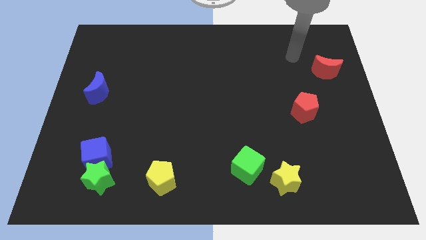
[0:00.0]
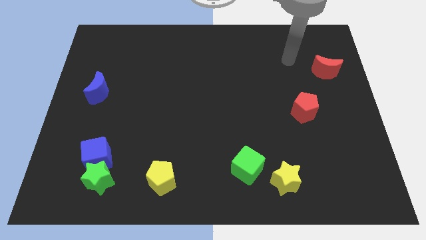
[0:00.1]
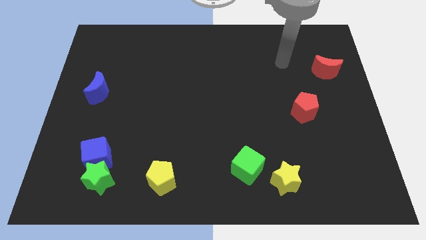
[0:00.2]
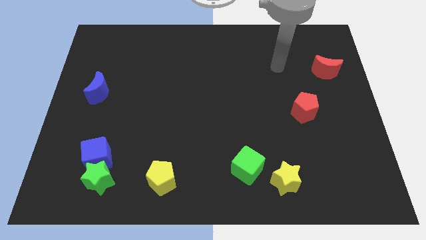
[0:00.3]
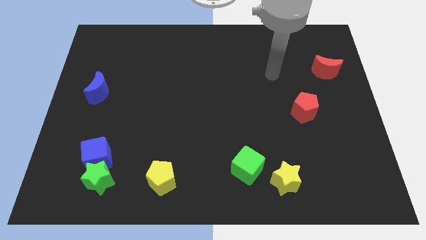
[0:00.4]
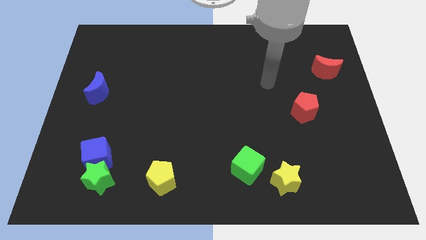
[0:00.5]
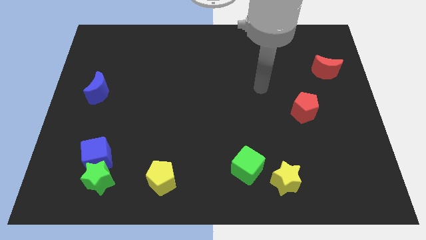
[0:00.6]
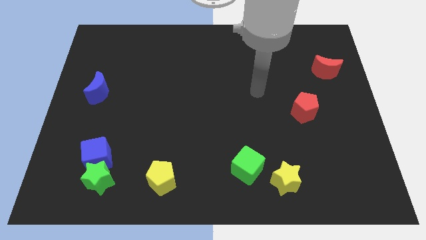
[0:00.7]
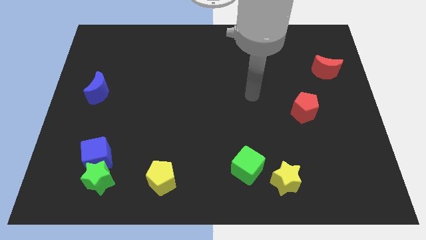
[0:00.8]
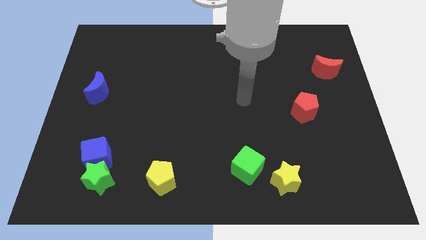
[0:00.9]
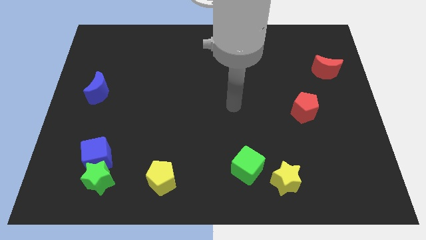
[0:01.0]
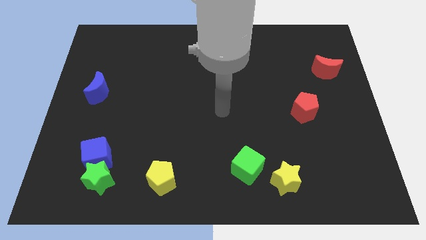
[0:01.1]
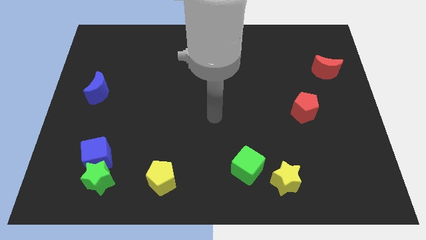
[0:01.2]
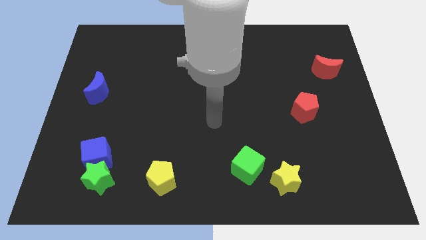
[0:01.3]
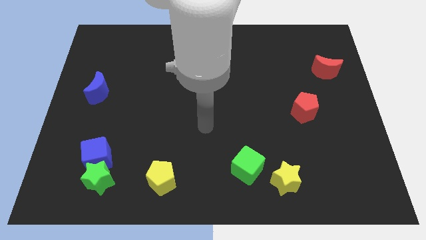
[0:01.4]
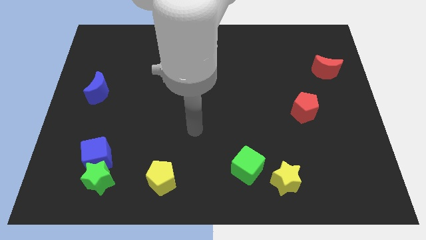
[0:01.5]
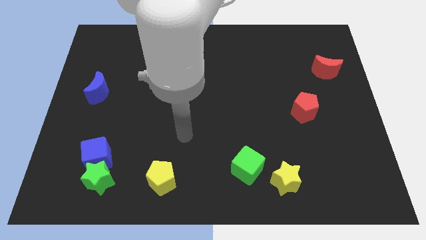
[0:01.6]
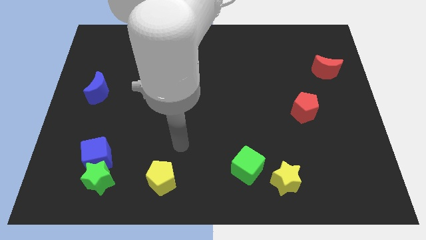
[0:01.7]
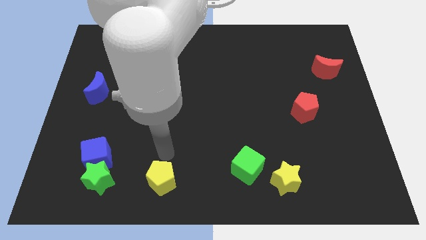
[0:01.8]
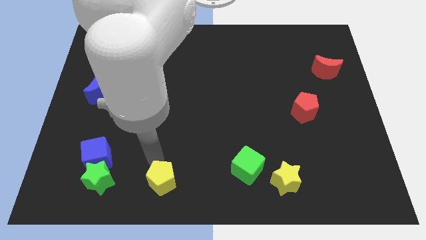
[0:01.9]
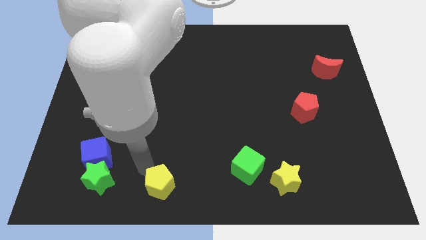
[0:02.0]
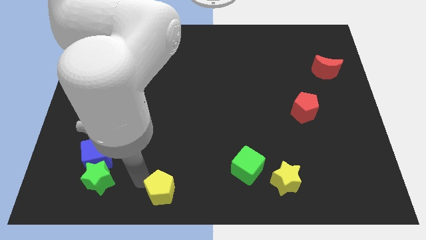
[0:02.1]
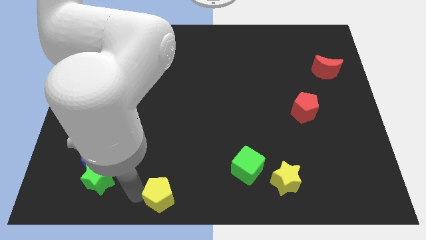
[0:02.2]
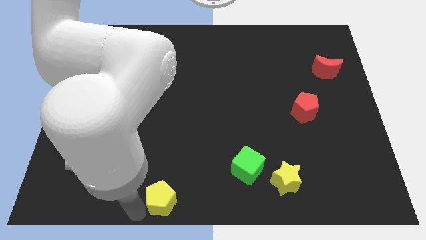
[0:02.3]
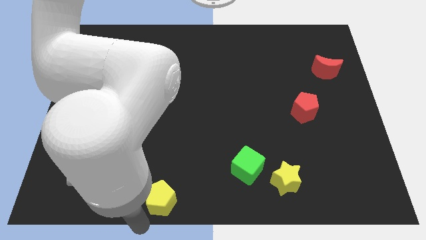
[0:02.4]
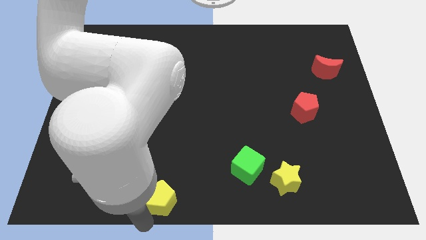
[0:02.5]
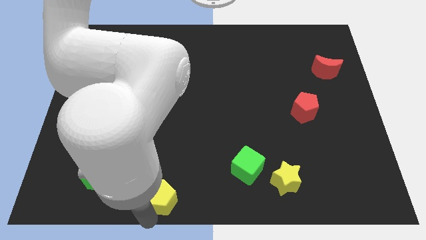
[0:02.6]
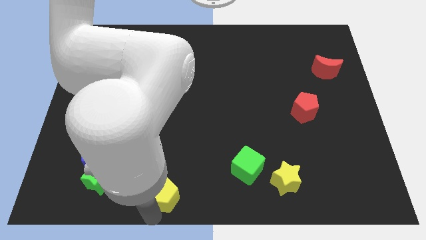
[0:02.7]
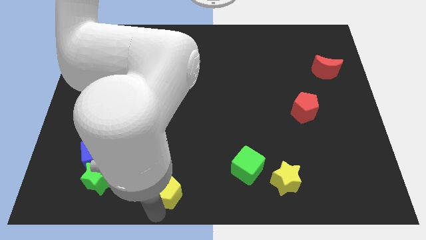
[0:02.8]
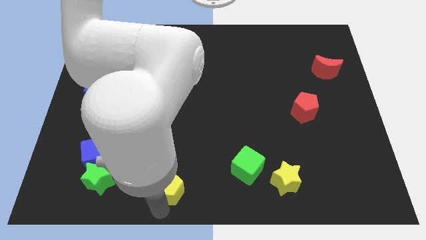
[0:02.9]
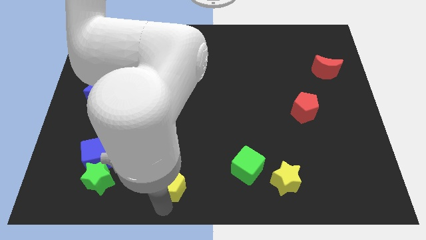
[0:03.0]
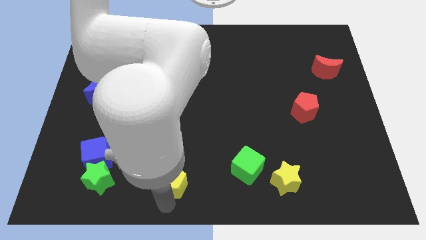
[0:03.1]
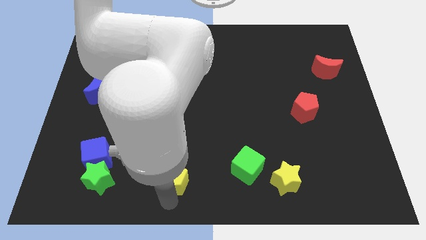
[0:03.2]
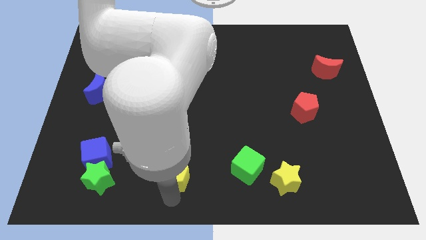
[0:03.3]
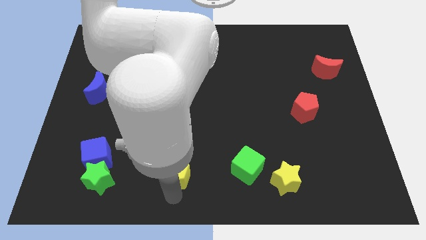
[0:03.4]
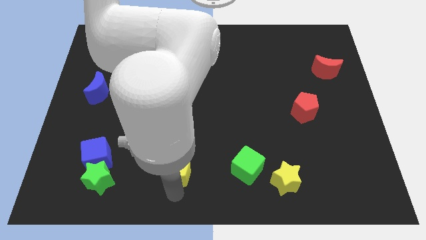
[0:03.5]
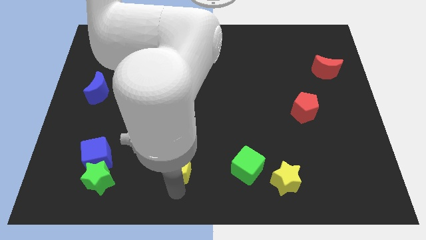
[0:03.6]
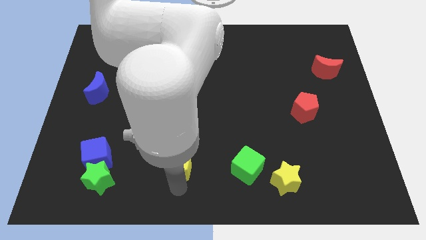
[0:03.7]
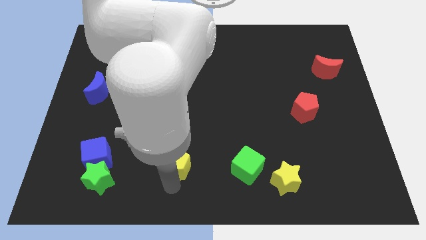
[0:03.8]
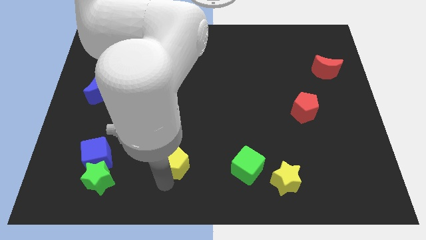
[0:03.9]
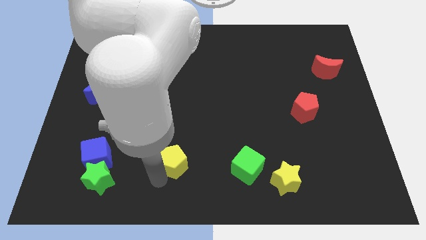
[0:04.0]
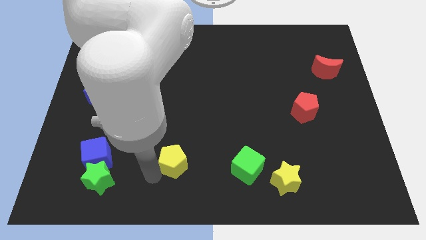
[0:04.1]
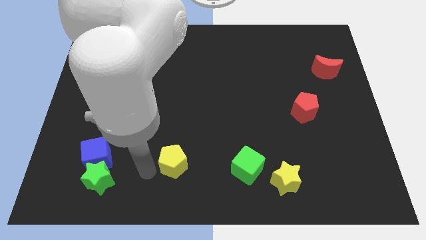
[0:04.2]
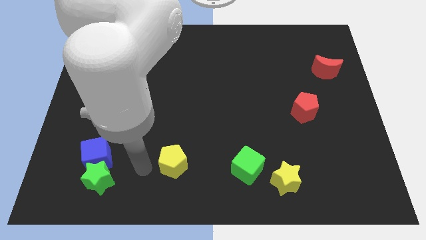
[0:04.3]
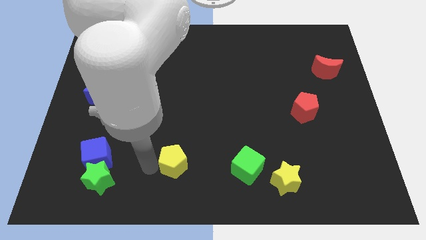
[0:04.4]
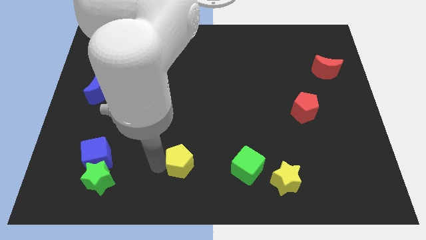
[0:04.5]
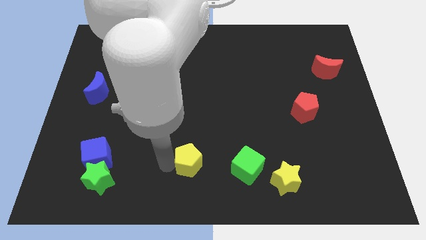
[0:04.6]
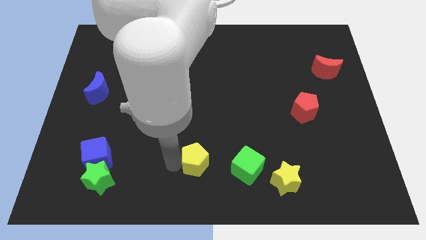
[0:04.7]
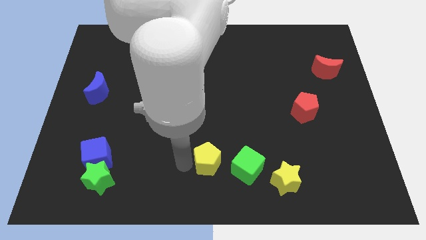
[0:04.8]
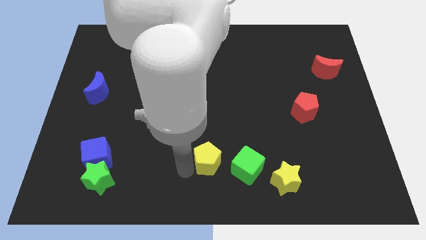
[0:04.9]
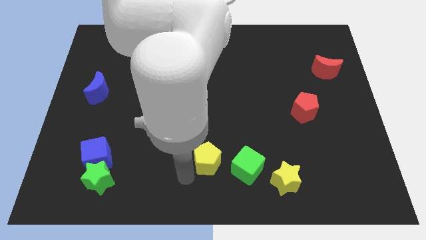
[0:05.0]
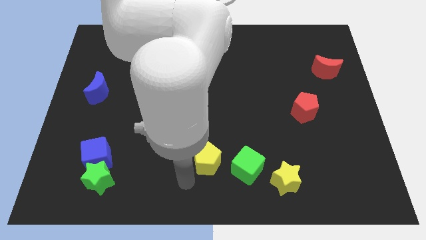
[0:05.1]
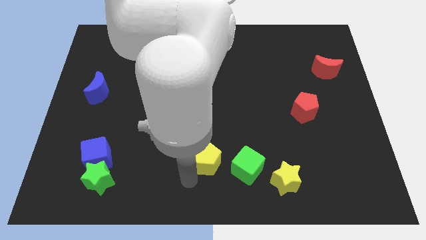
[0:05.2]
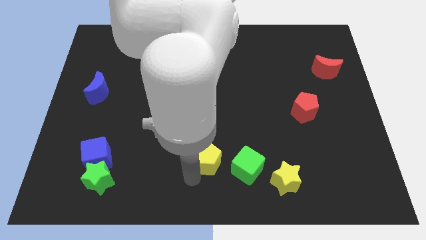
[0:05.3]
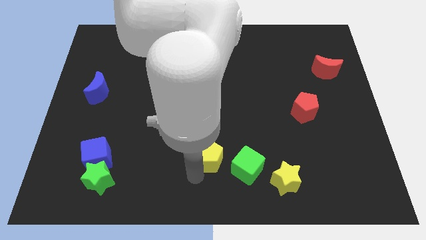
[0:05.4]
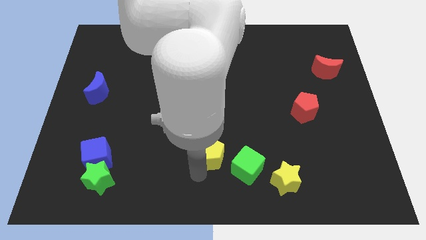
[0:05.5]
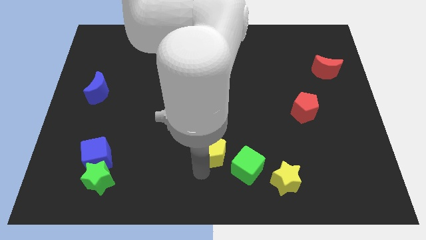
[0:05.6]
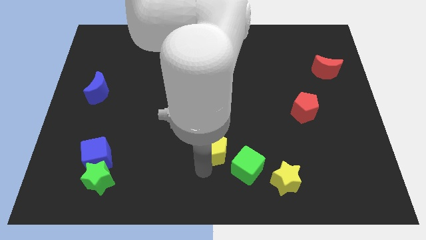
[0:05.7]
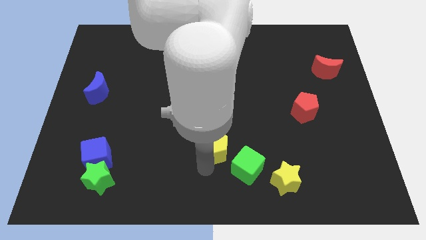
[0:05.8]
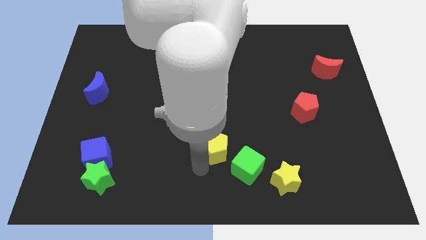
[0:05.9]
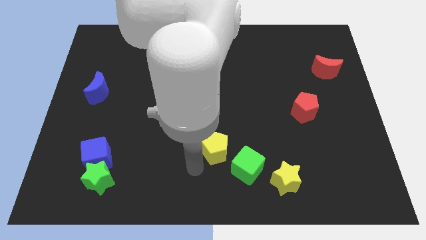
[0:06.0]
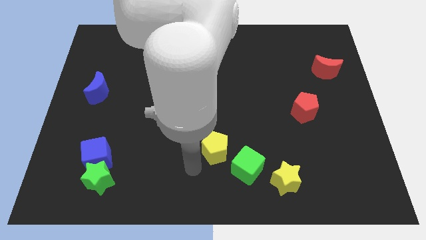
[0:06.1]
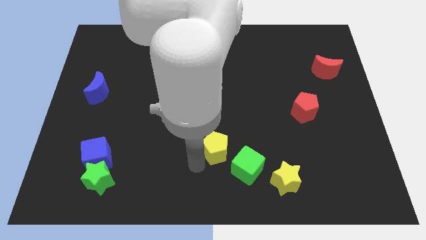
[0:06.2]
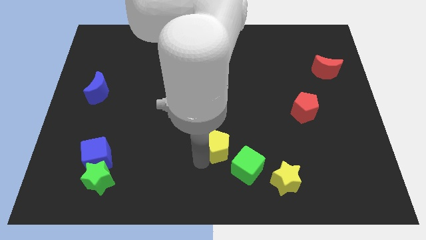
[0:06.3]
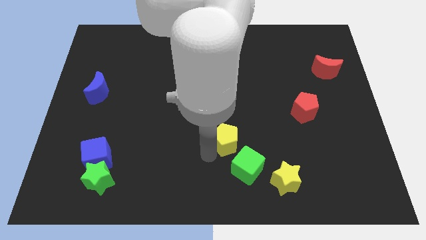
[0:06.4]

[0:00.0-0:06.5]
move the yellow pentagon to the top of the green cube

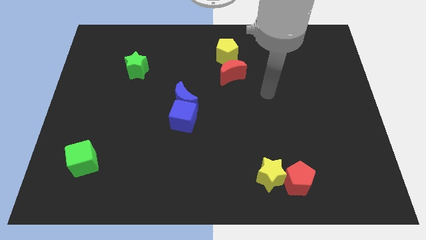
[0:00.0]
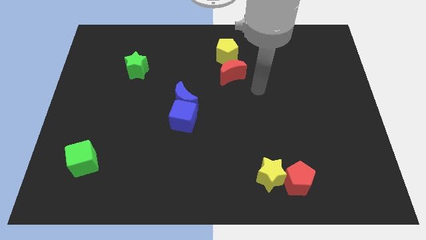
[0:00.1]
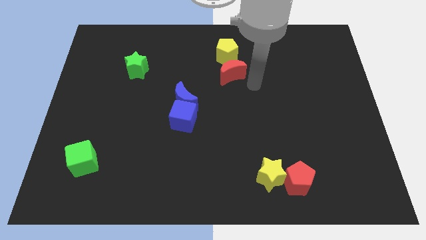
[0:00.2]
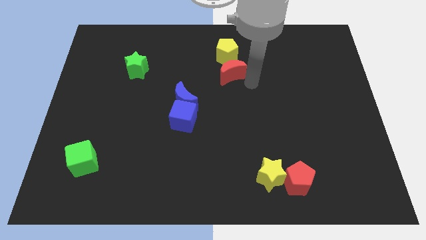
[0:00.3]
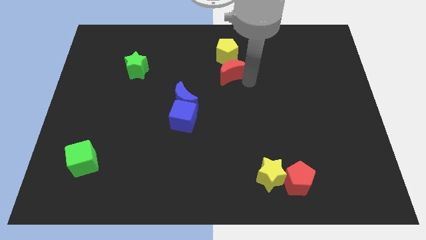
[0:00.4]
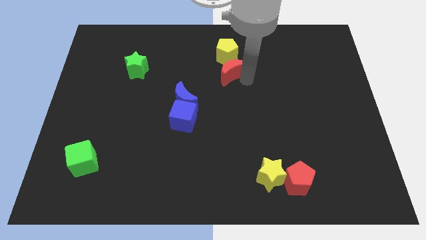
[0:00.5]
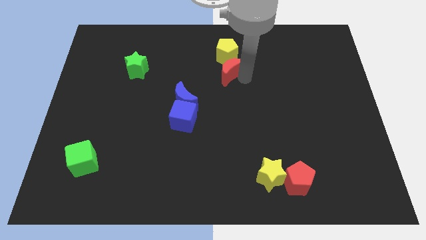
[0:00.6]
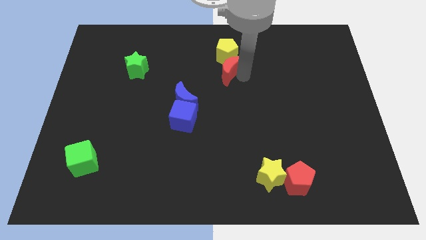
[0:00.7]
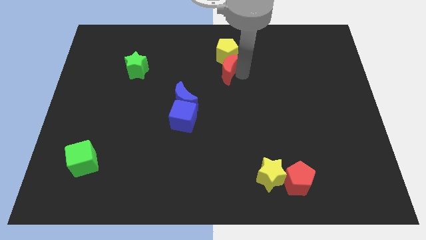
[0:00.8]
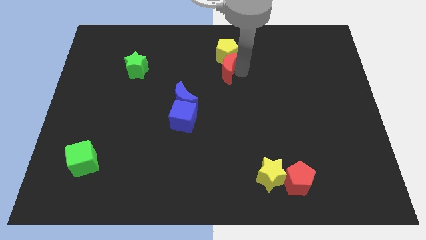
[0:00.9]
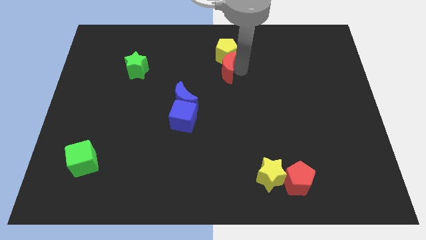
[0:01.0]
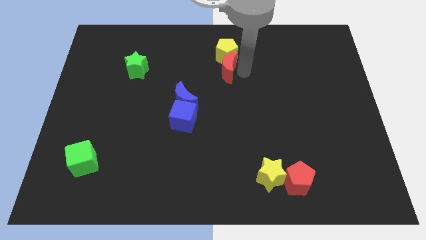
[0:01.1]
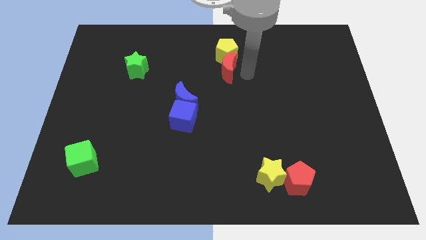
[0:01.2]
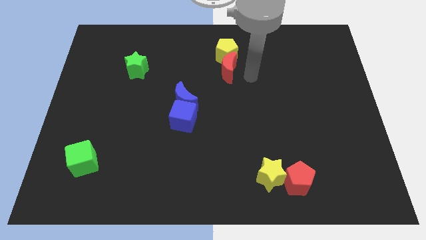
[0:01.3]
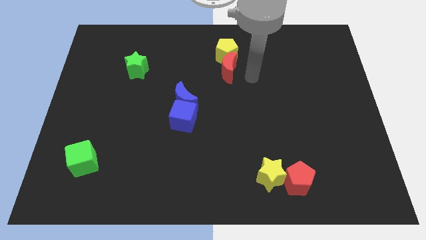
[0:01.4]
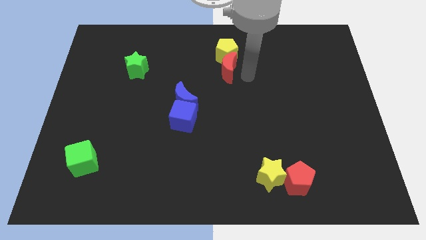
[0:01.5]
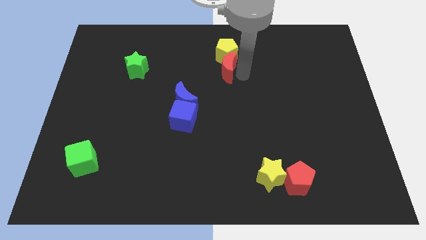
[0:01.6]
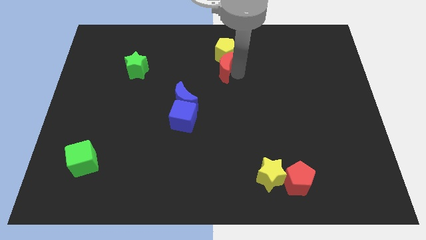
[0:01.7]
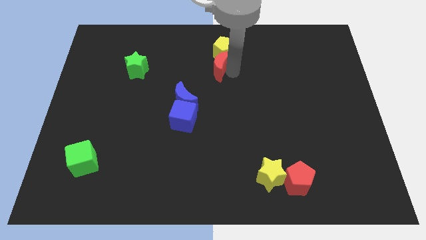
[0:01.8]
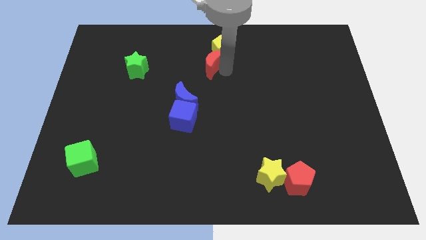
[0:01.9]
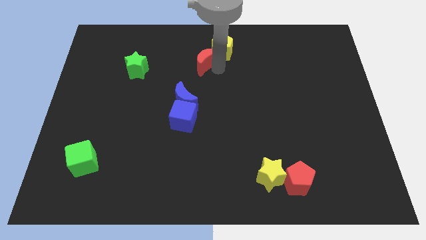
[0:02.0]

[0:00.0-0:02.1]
slide the red moon just left of the yellow pentagon
